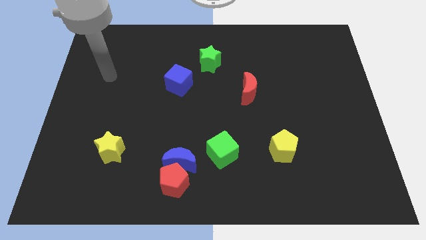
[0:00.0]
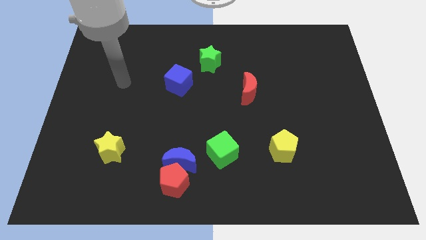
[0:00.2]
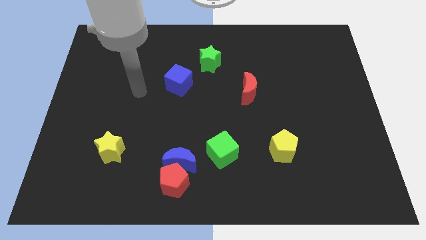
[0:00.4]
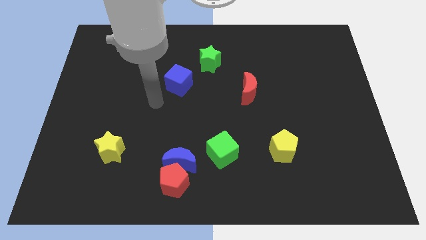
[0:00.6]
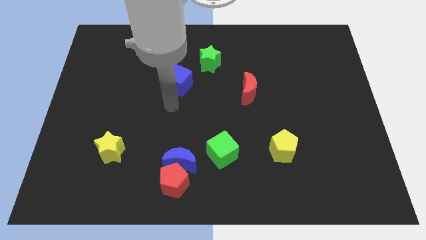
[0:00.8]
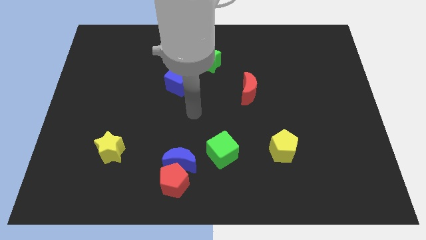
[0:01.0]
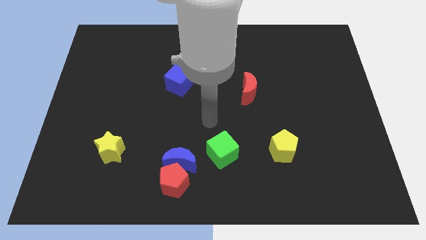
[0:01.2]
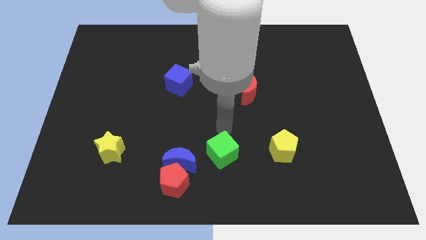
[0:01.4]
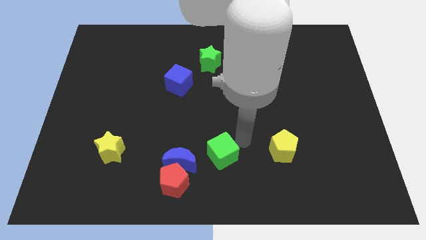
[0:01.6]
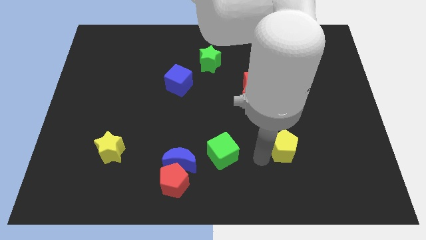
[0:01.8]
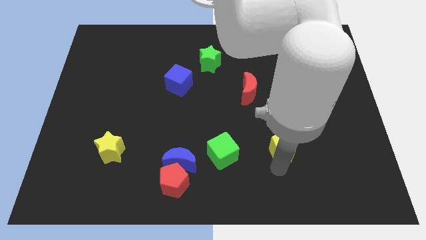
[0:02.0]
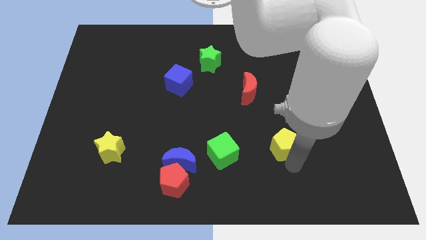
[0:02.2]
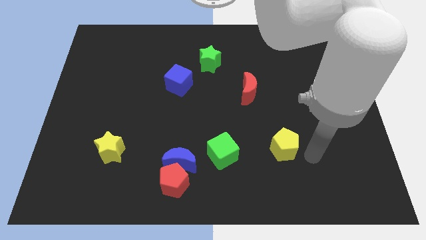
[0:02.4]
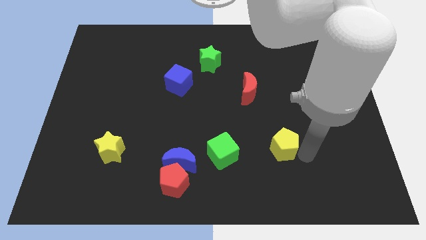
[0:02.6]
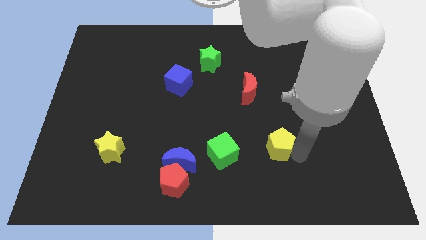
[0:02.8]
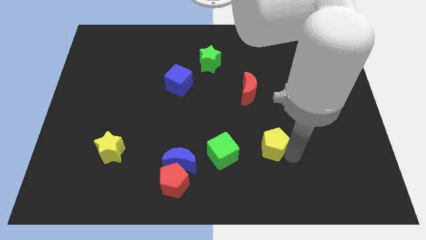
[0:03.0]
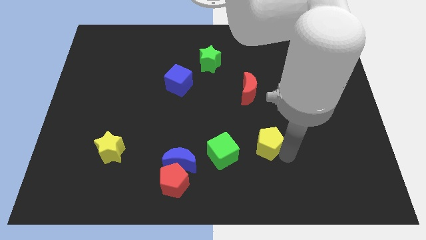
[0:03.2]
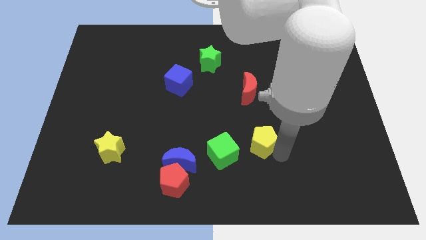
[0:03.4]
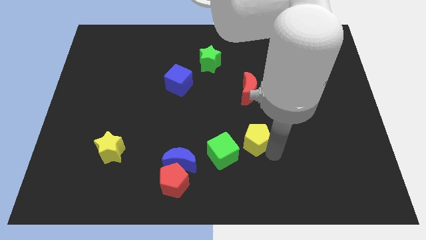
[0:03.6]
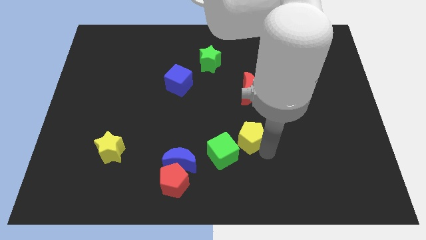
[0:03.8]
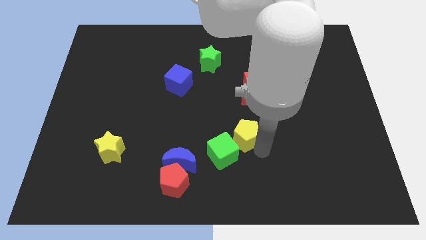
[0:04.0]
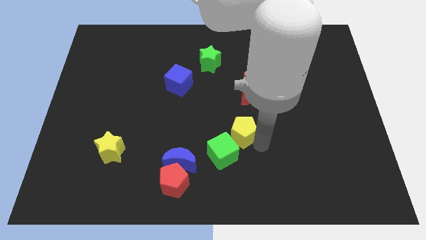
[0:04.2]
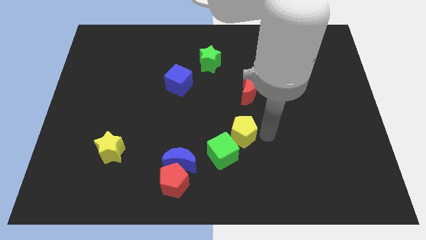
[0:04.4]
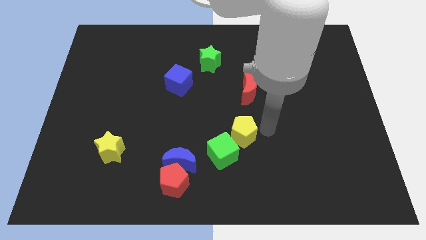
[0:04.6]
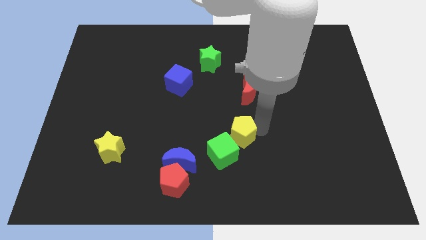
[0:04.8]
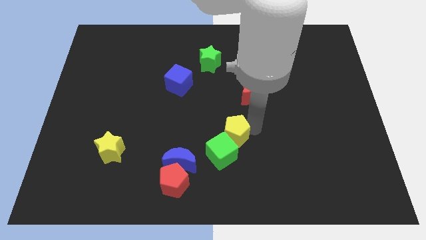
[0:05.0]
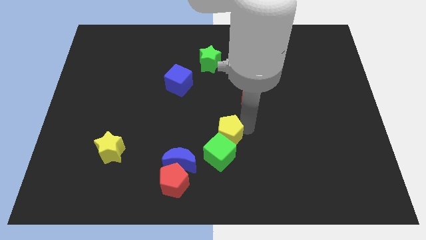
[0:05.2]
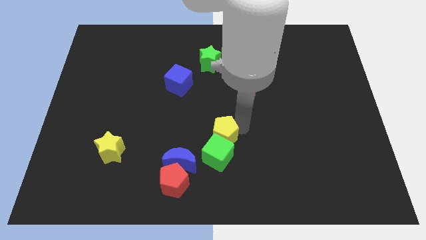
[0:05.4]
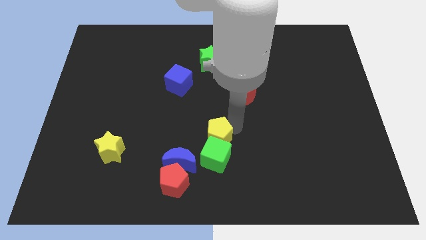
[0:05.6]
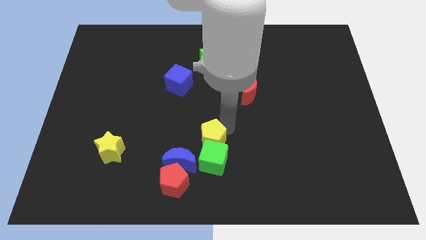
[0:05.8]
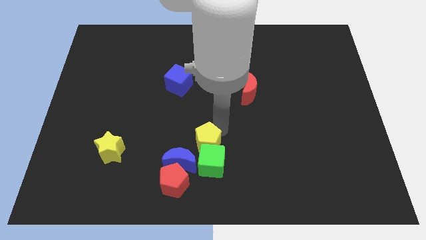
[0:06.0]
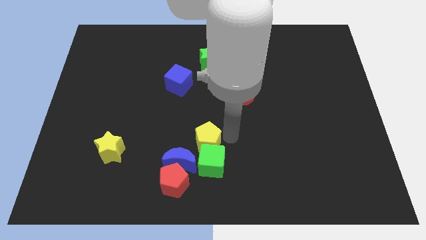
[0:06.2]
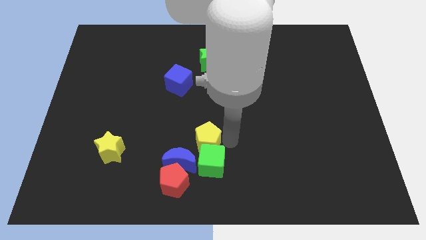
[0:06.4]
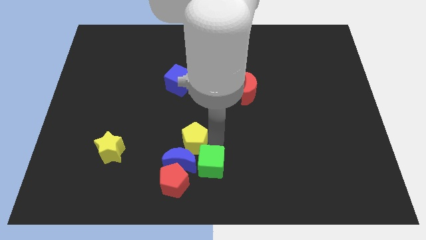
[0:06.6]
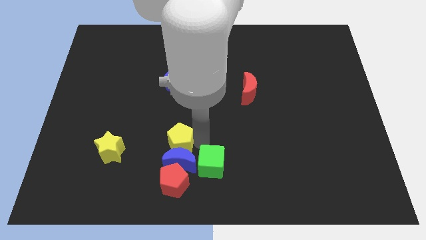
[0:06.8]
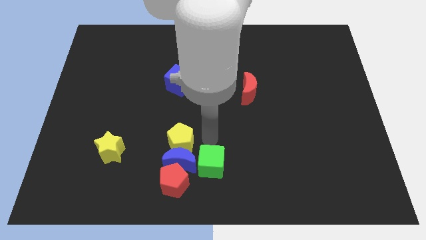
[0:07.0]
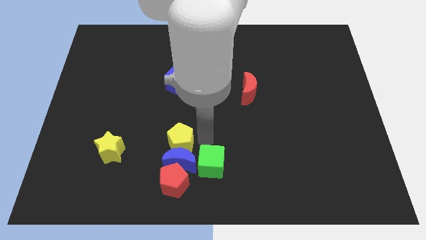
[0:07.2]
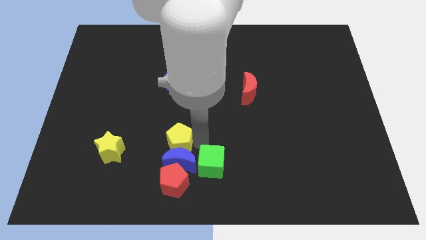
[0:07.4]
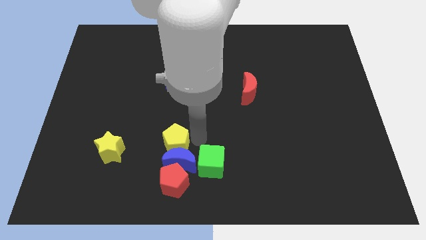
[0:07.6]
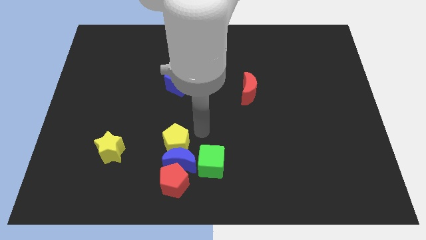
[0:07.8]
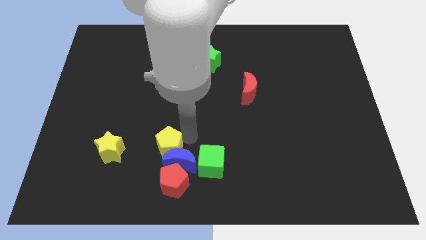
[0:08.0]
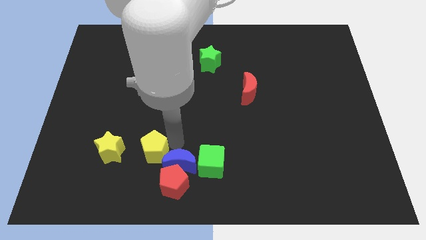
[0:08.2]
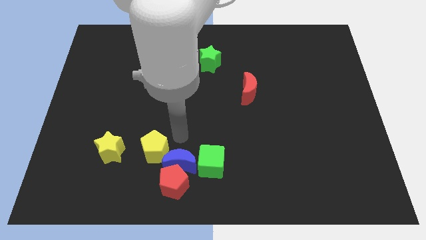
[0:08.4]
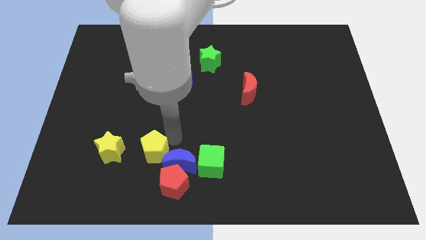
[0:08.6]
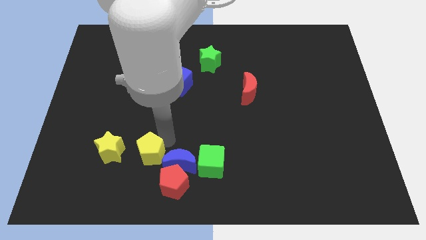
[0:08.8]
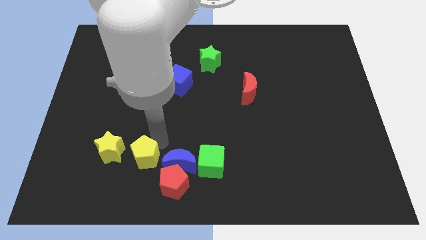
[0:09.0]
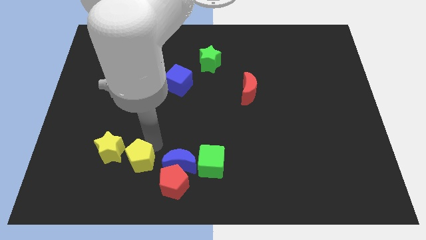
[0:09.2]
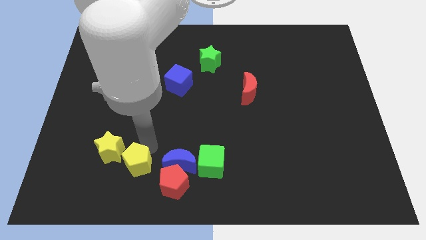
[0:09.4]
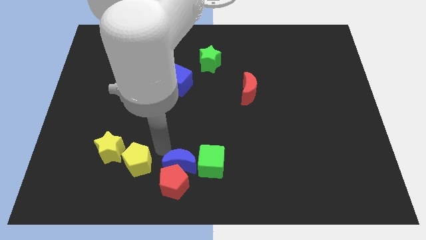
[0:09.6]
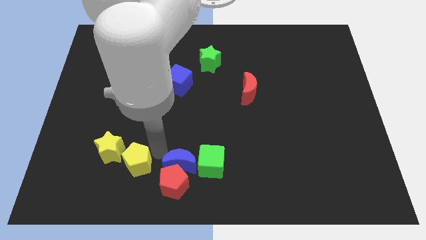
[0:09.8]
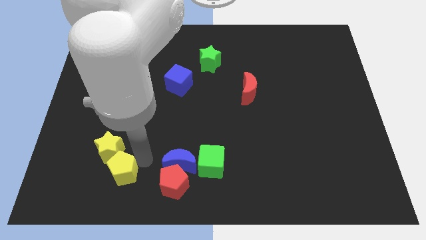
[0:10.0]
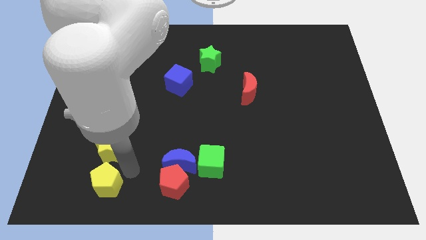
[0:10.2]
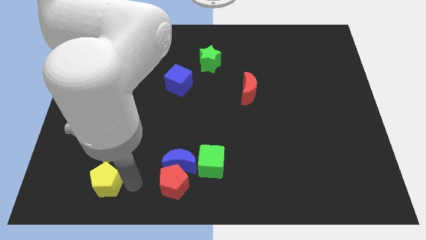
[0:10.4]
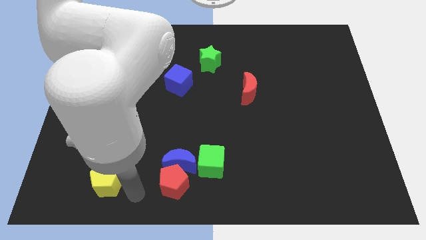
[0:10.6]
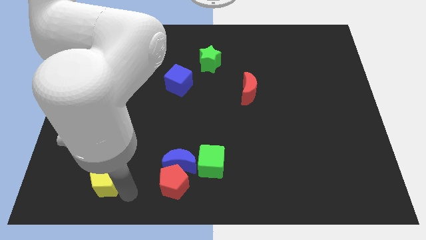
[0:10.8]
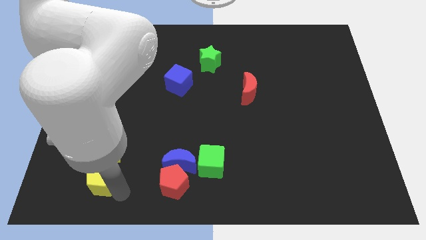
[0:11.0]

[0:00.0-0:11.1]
slide the yellow pentagon diagonally down and to the left of the yellow star

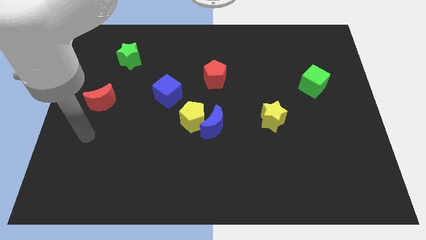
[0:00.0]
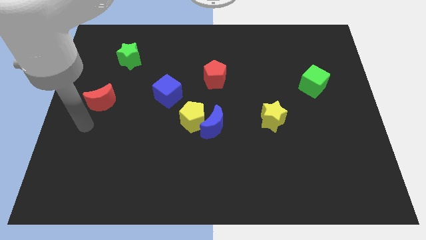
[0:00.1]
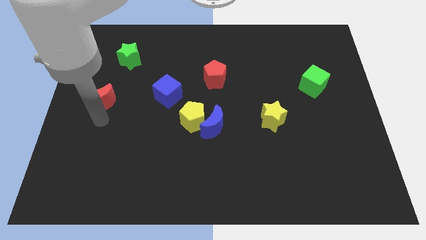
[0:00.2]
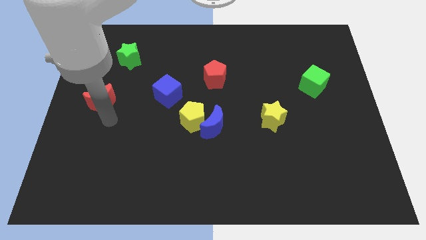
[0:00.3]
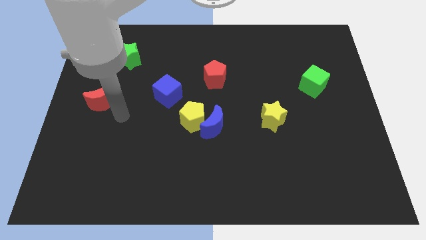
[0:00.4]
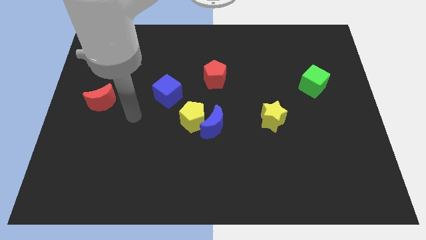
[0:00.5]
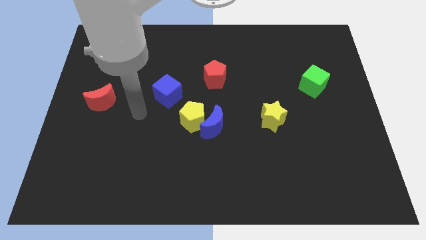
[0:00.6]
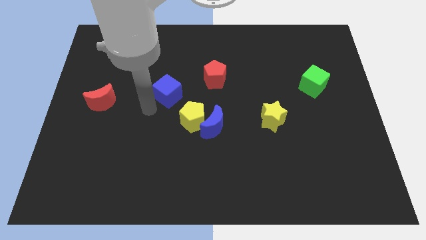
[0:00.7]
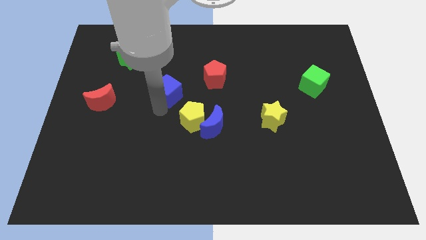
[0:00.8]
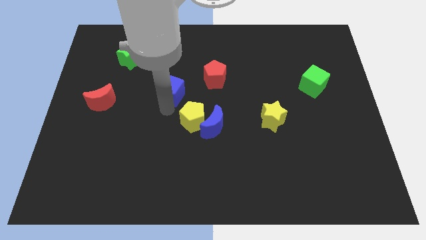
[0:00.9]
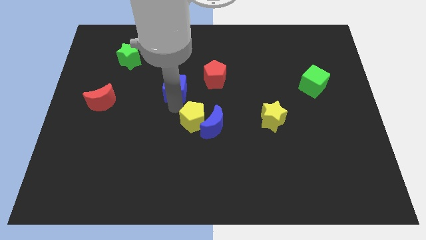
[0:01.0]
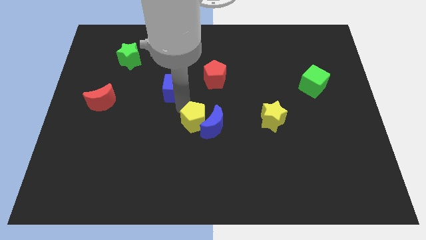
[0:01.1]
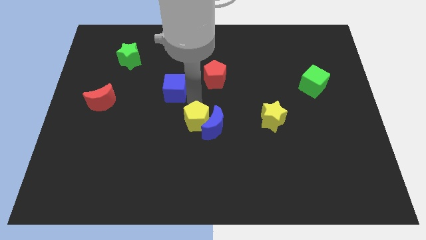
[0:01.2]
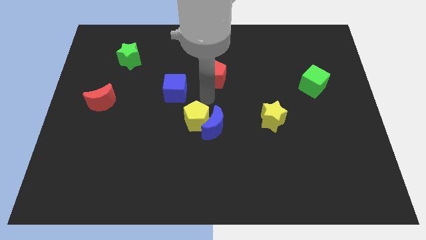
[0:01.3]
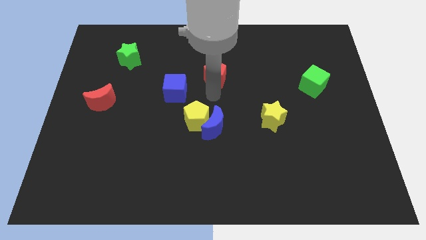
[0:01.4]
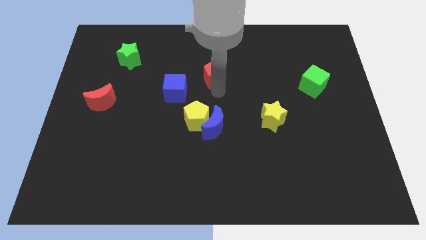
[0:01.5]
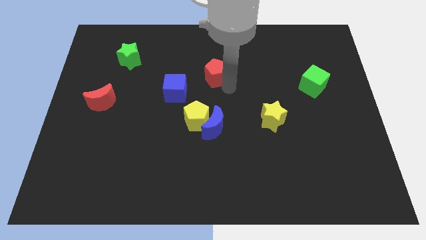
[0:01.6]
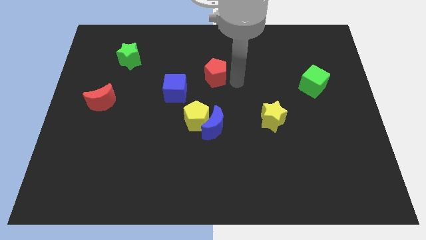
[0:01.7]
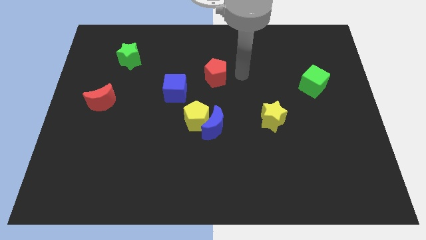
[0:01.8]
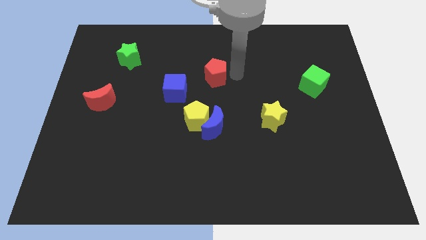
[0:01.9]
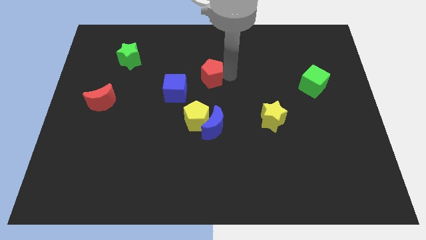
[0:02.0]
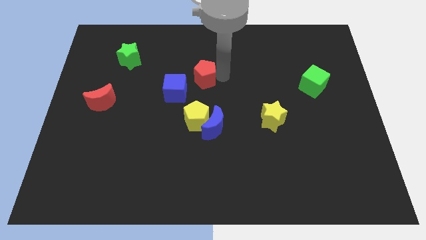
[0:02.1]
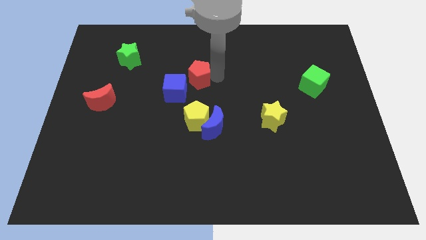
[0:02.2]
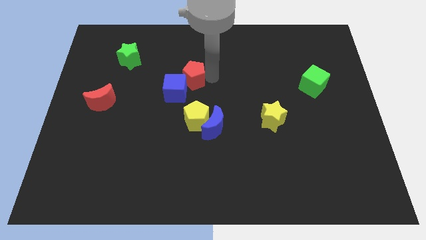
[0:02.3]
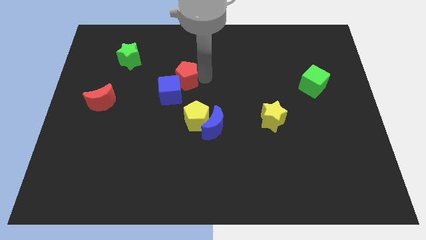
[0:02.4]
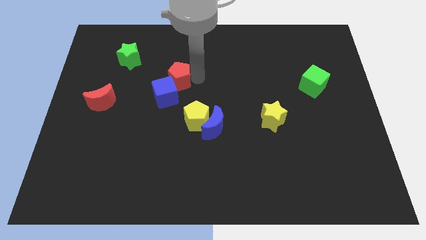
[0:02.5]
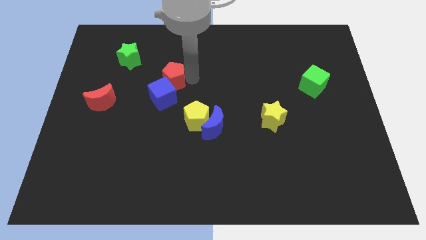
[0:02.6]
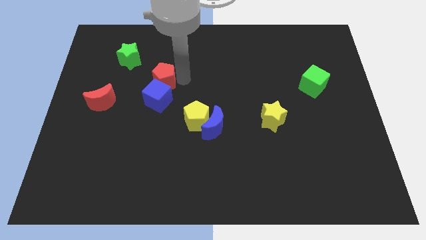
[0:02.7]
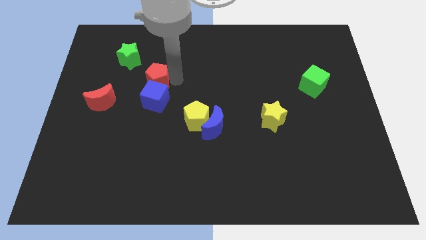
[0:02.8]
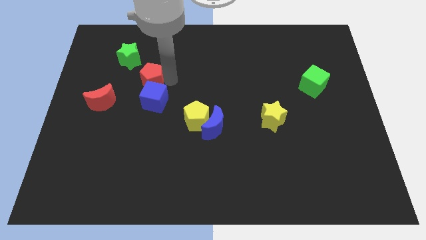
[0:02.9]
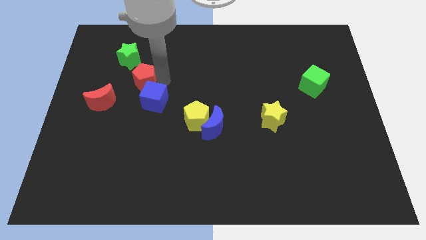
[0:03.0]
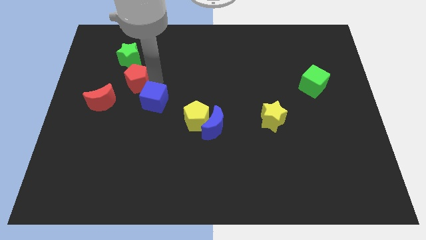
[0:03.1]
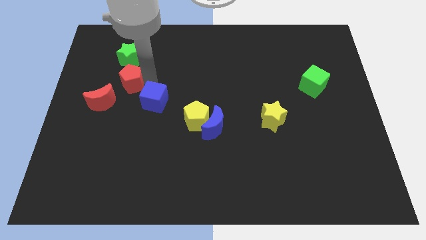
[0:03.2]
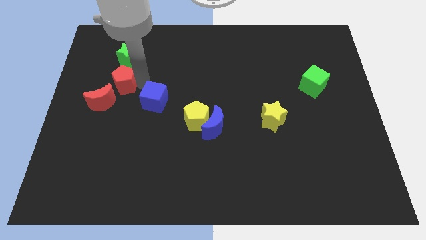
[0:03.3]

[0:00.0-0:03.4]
put the red pentagon to the top side of the red moon

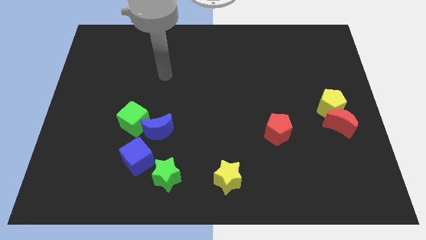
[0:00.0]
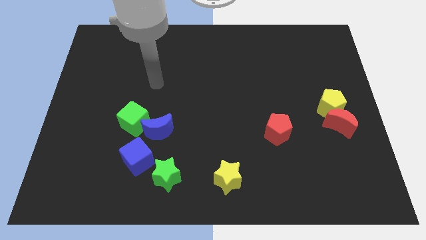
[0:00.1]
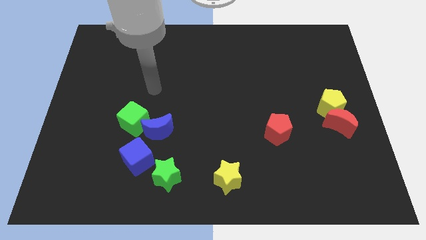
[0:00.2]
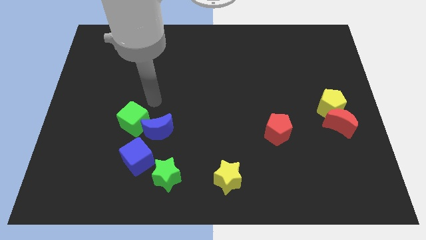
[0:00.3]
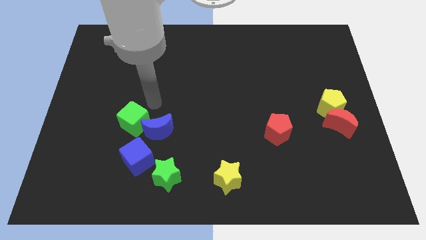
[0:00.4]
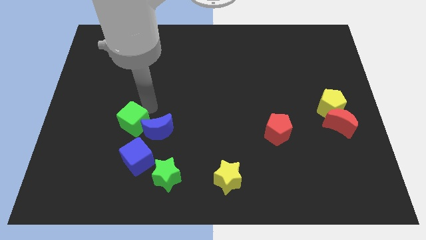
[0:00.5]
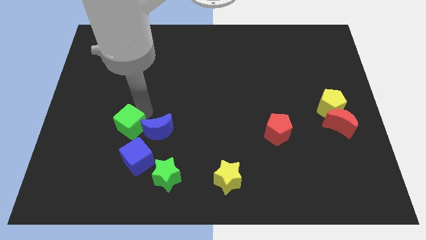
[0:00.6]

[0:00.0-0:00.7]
slide the green cube to the top left of the blue cube
